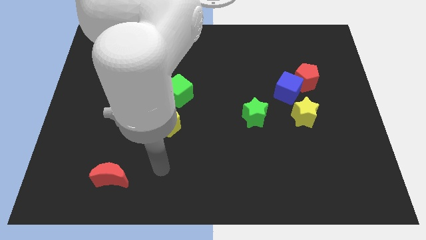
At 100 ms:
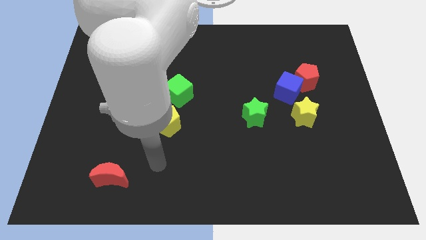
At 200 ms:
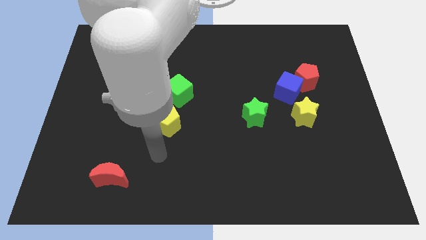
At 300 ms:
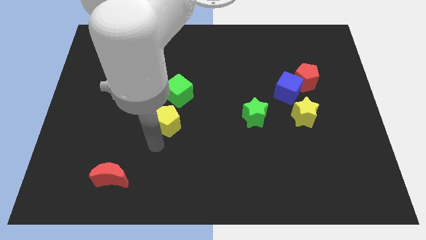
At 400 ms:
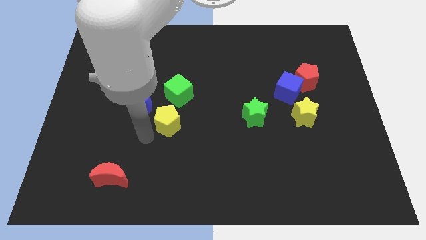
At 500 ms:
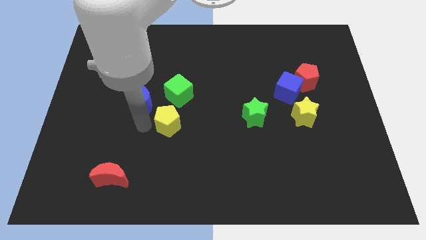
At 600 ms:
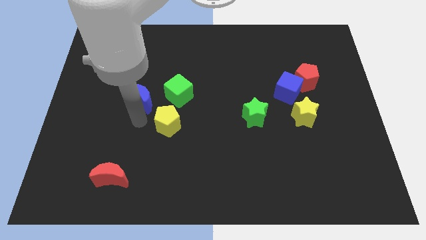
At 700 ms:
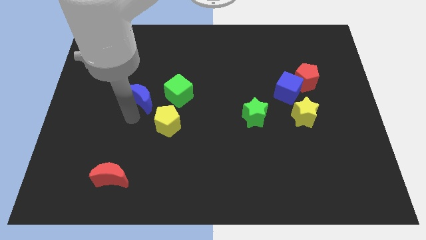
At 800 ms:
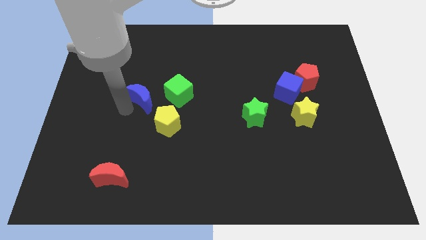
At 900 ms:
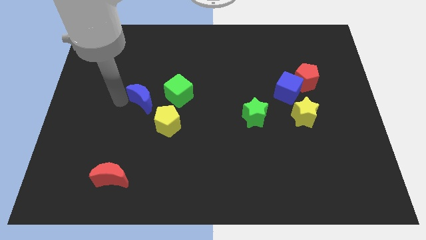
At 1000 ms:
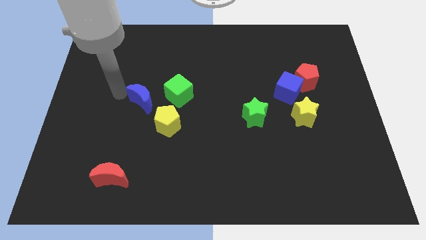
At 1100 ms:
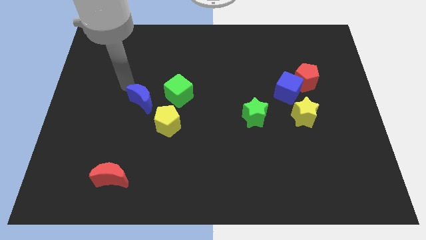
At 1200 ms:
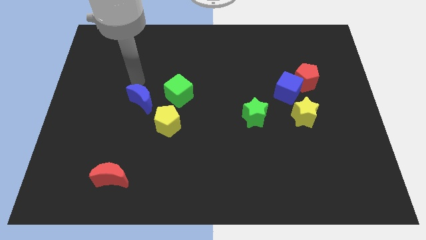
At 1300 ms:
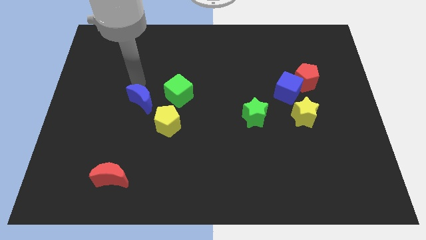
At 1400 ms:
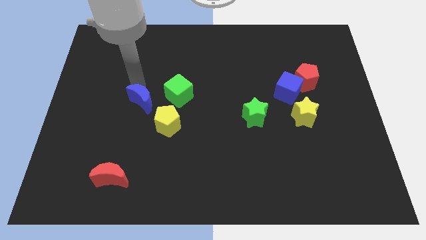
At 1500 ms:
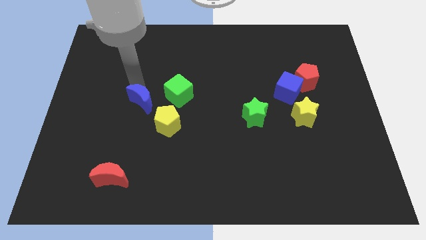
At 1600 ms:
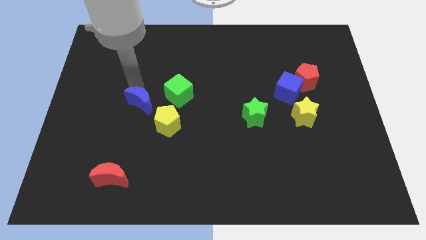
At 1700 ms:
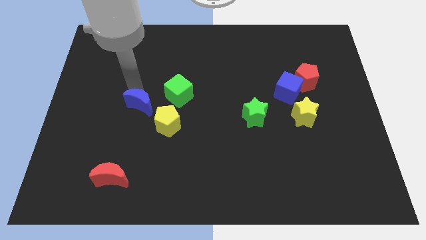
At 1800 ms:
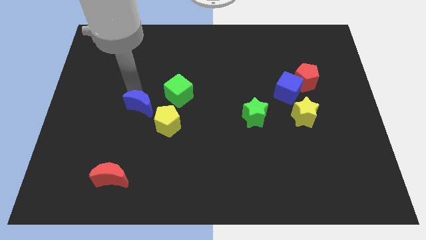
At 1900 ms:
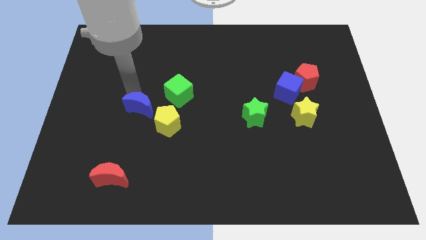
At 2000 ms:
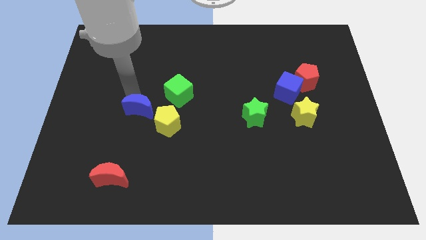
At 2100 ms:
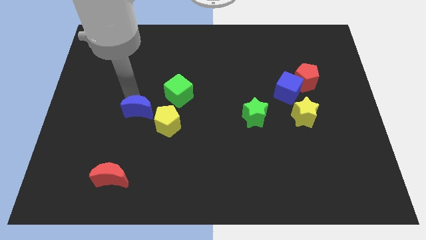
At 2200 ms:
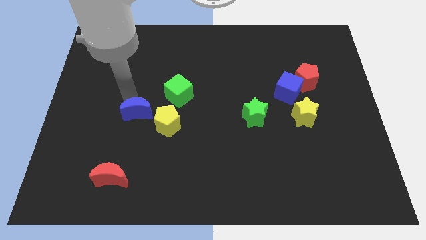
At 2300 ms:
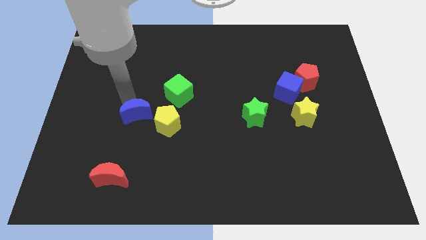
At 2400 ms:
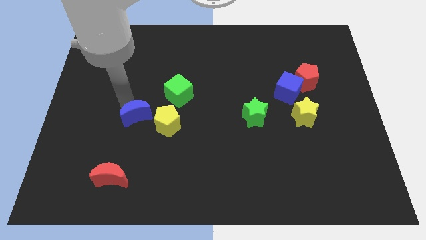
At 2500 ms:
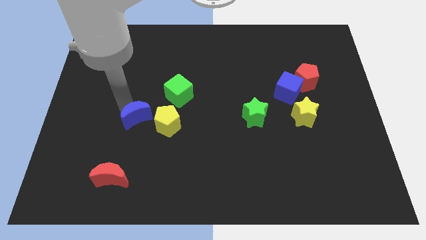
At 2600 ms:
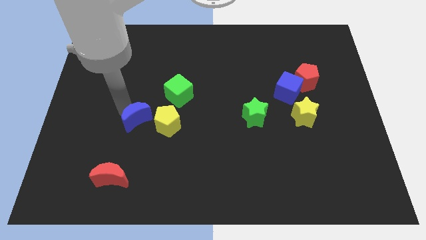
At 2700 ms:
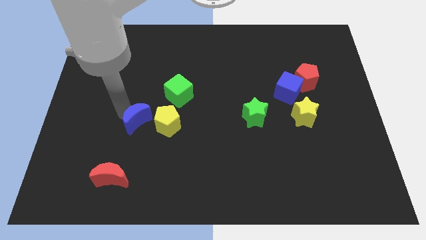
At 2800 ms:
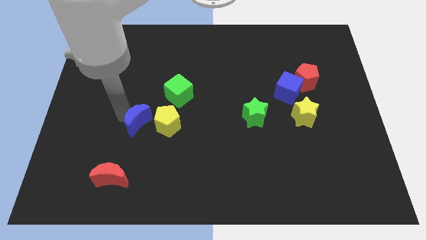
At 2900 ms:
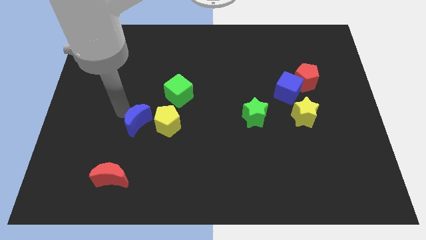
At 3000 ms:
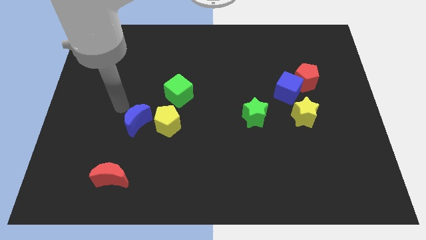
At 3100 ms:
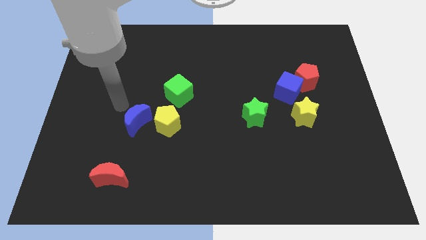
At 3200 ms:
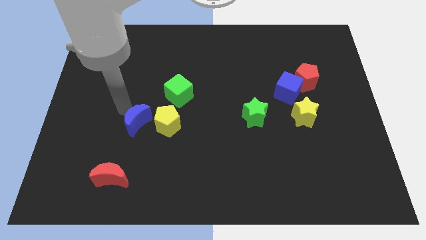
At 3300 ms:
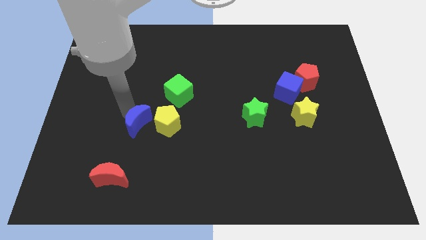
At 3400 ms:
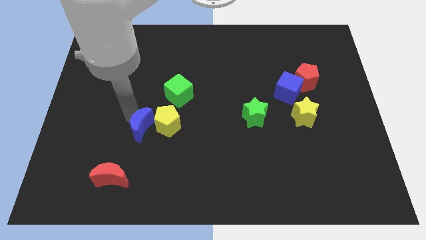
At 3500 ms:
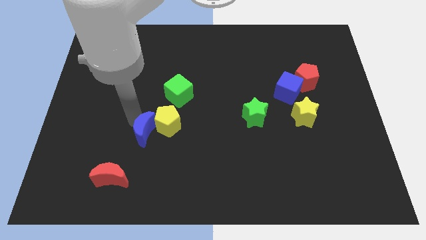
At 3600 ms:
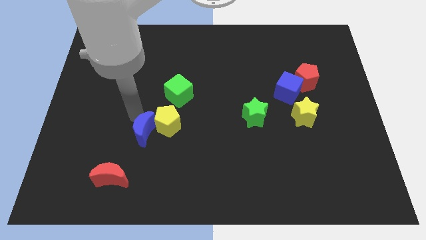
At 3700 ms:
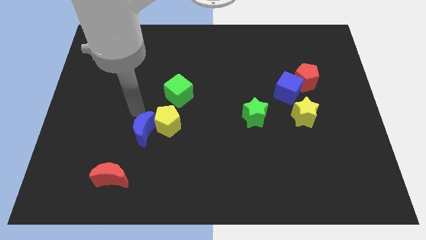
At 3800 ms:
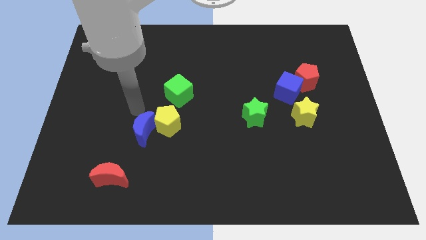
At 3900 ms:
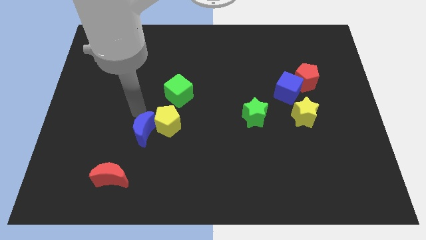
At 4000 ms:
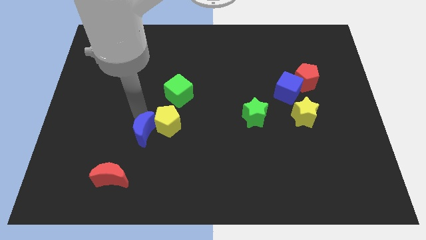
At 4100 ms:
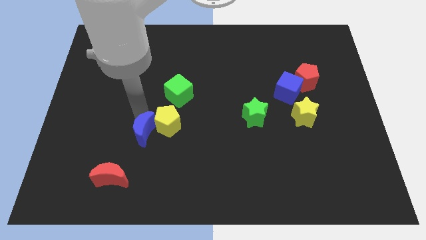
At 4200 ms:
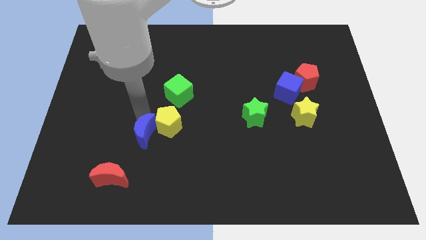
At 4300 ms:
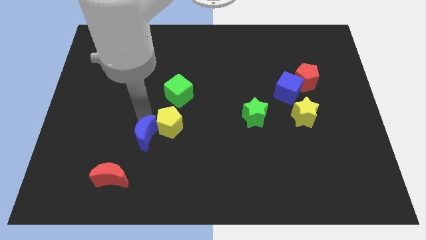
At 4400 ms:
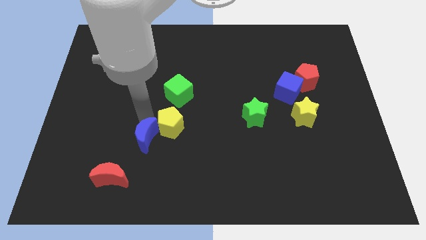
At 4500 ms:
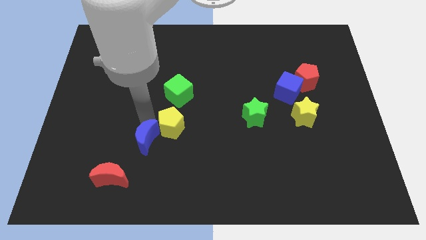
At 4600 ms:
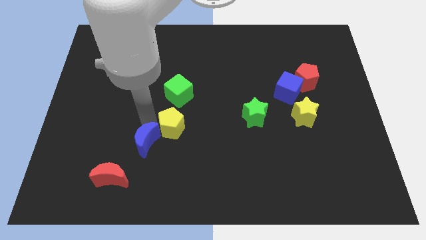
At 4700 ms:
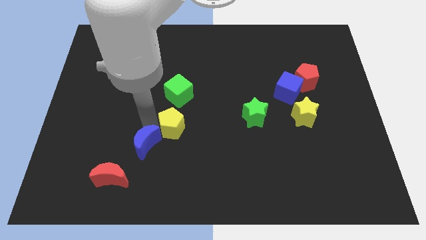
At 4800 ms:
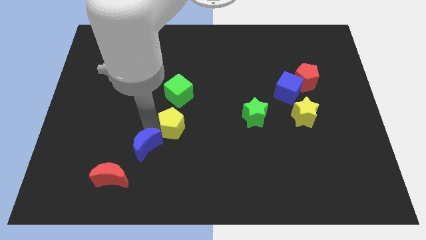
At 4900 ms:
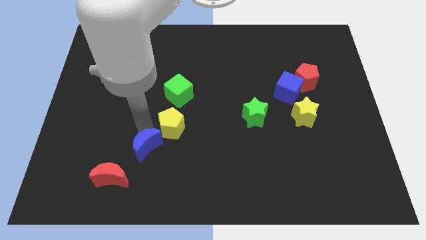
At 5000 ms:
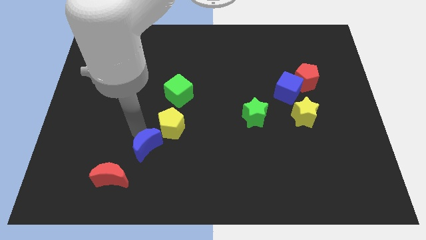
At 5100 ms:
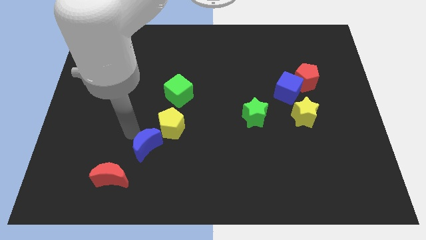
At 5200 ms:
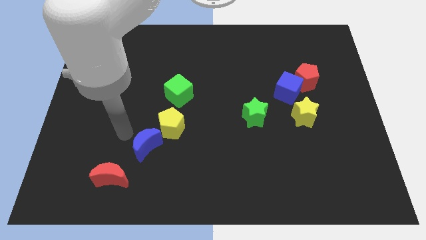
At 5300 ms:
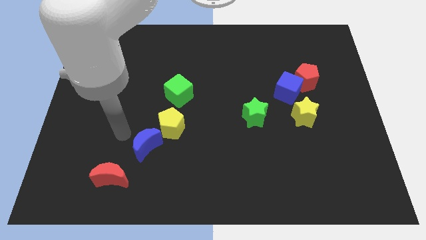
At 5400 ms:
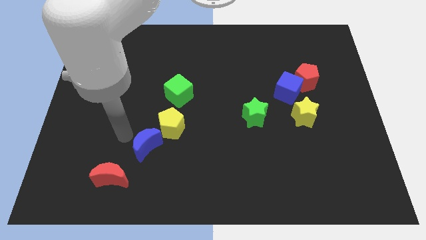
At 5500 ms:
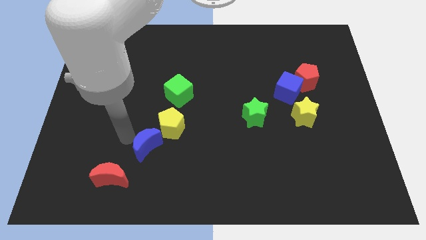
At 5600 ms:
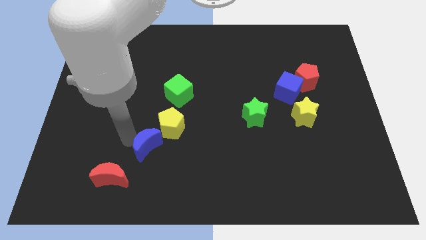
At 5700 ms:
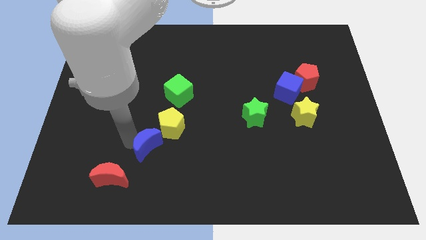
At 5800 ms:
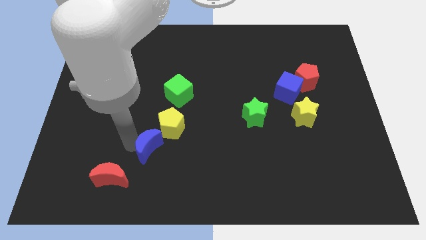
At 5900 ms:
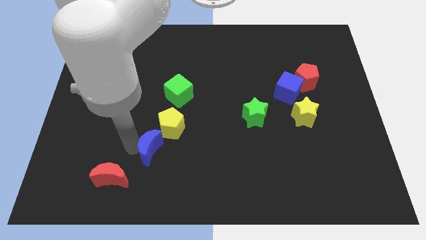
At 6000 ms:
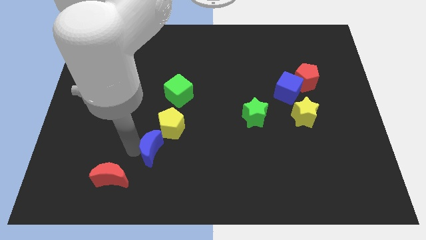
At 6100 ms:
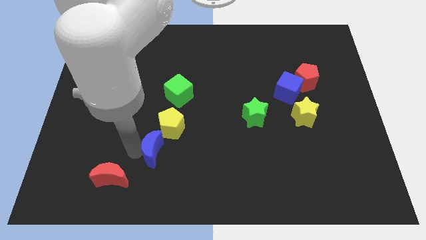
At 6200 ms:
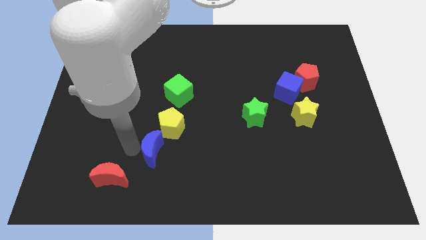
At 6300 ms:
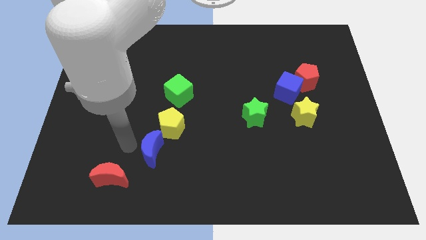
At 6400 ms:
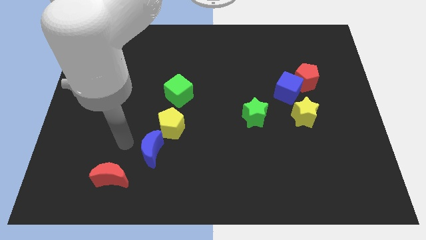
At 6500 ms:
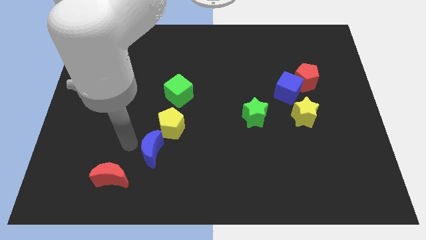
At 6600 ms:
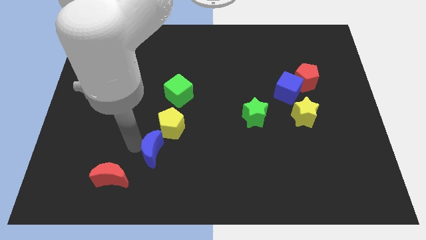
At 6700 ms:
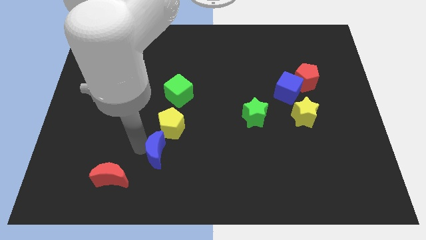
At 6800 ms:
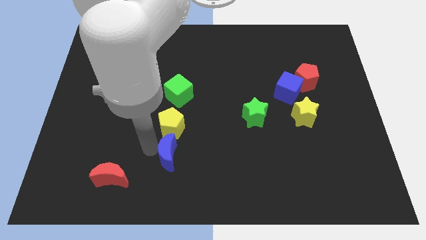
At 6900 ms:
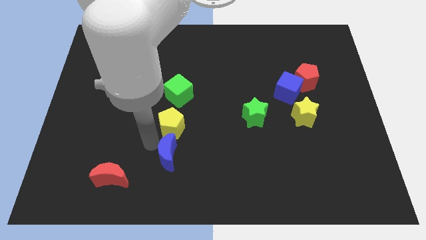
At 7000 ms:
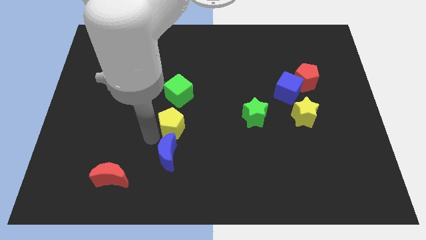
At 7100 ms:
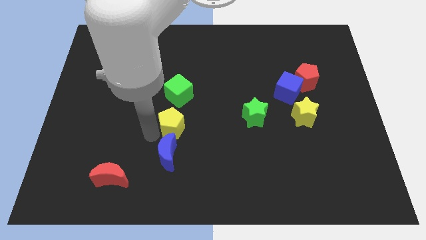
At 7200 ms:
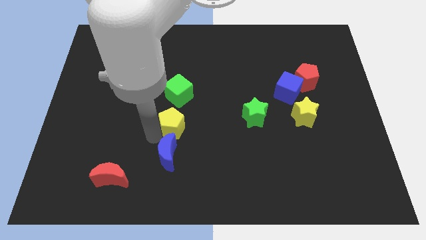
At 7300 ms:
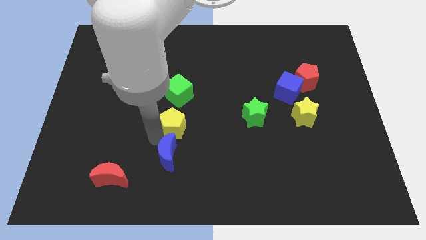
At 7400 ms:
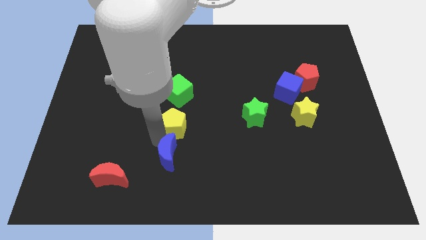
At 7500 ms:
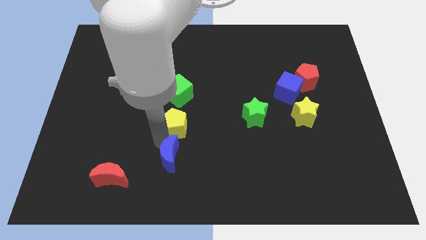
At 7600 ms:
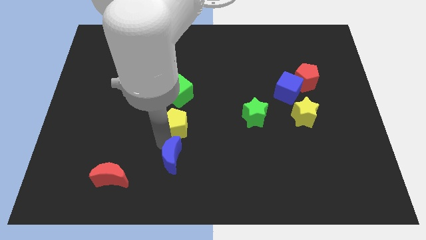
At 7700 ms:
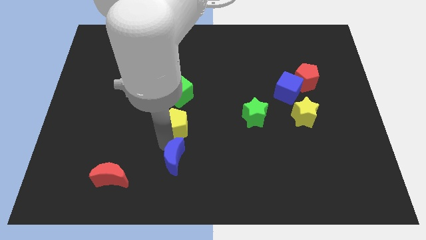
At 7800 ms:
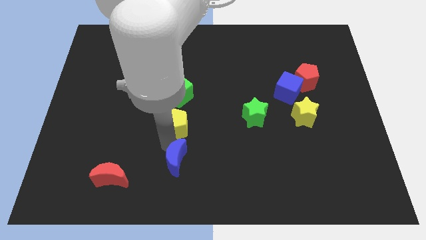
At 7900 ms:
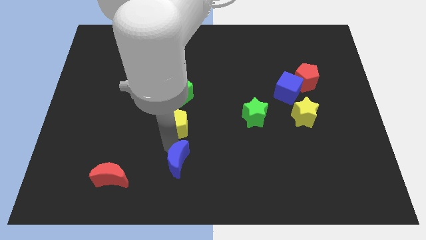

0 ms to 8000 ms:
push the blue moon to the bottom
